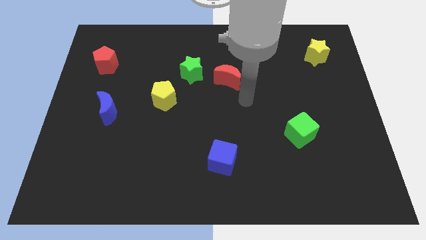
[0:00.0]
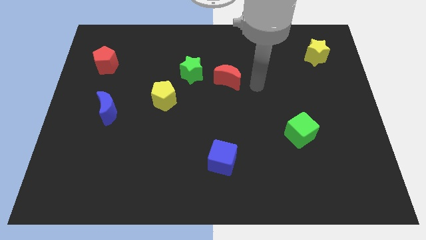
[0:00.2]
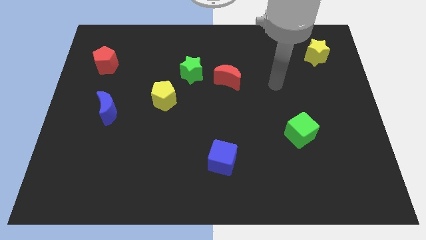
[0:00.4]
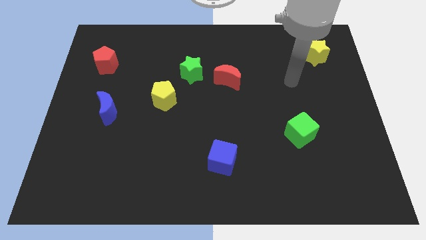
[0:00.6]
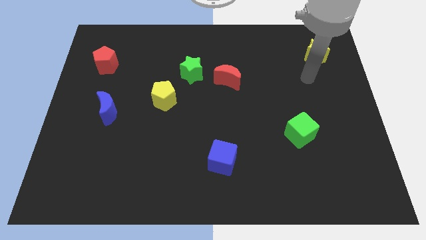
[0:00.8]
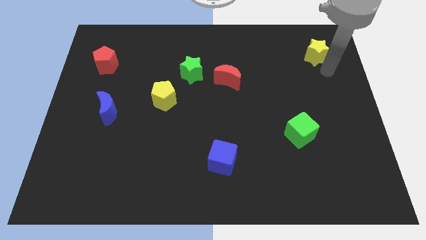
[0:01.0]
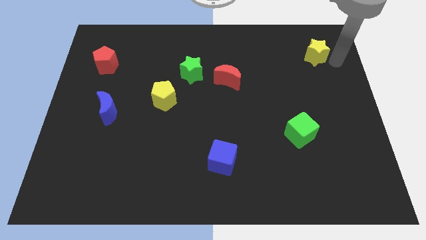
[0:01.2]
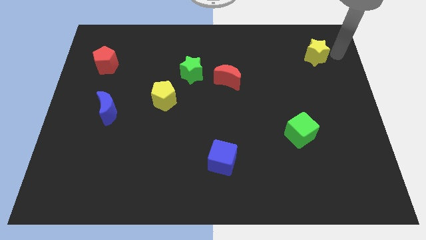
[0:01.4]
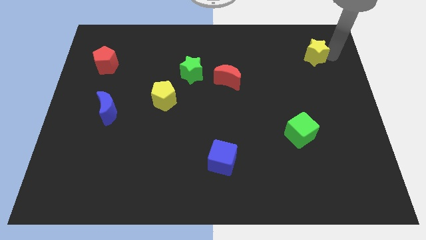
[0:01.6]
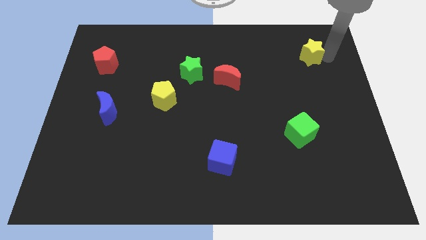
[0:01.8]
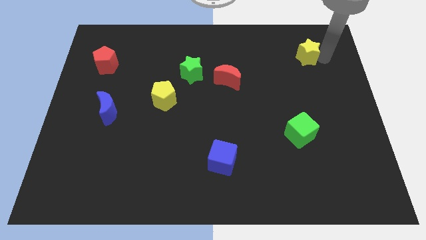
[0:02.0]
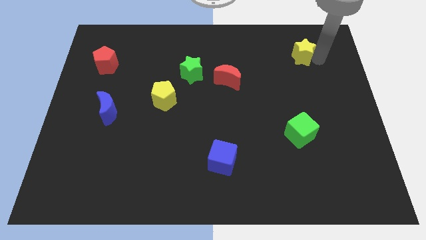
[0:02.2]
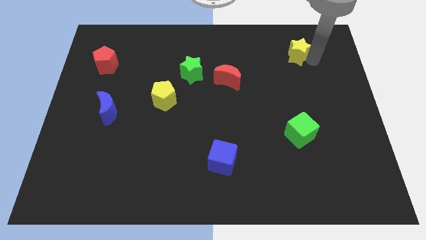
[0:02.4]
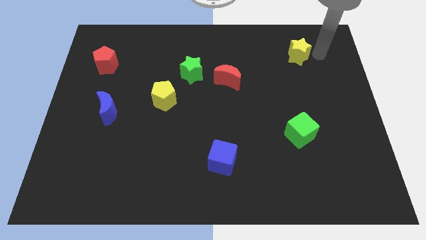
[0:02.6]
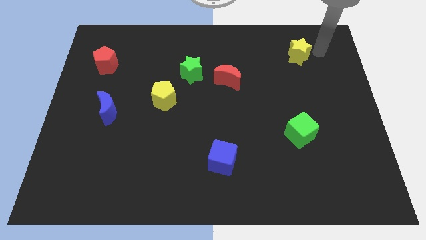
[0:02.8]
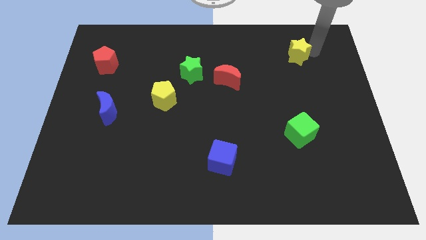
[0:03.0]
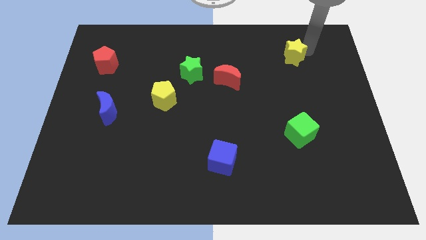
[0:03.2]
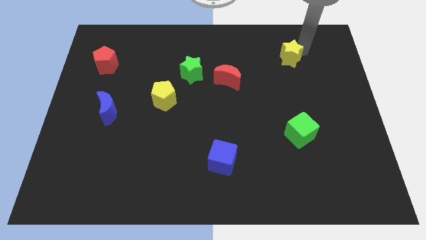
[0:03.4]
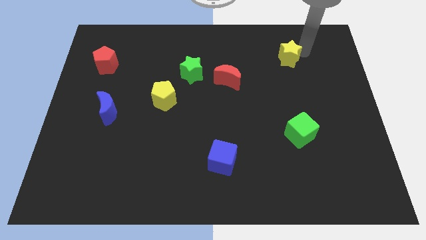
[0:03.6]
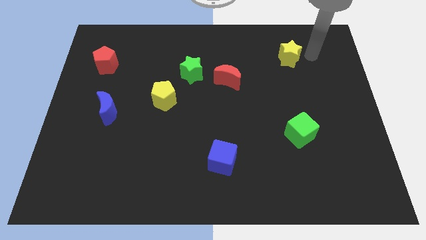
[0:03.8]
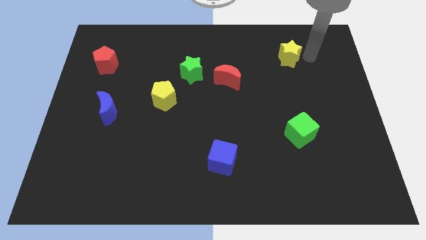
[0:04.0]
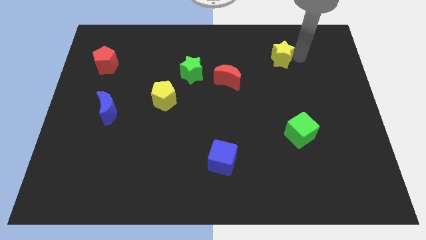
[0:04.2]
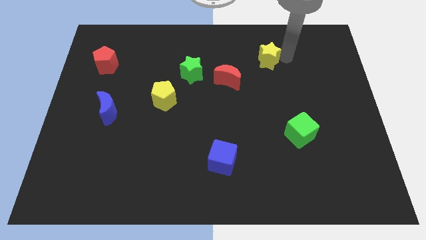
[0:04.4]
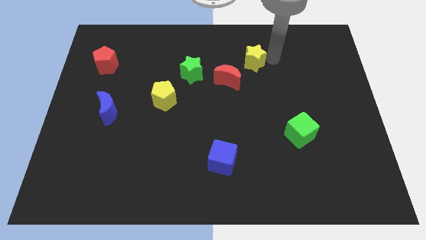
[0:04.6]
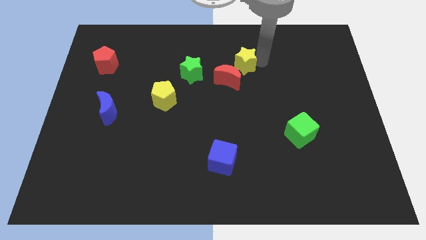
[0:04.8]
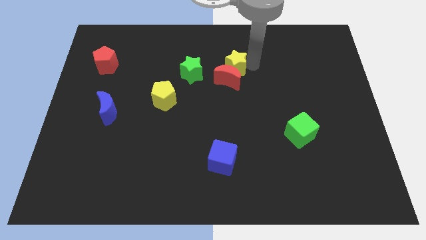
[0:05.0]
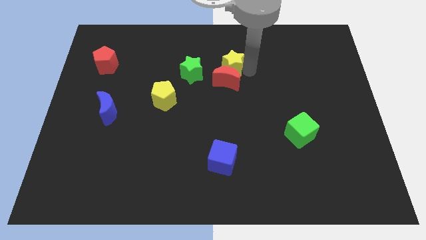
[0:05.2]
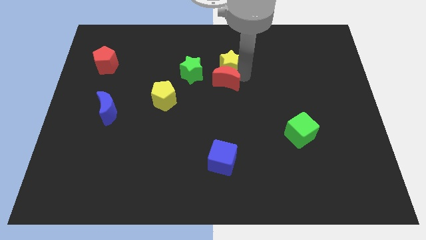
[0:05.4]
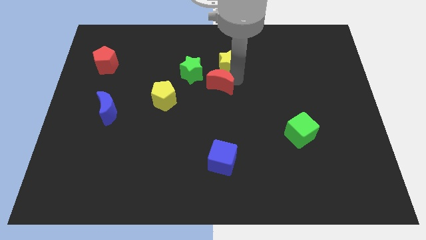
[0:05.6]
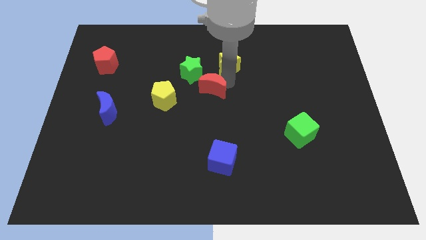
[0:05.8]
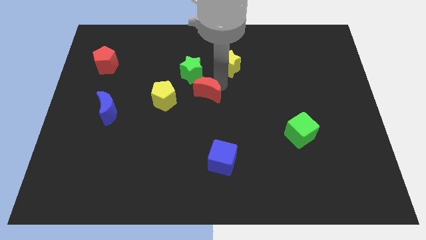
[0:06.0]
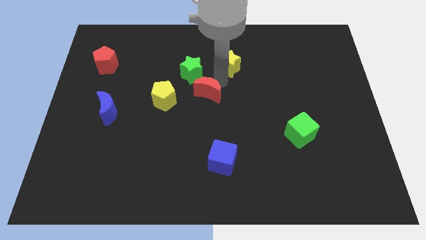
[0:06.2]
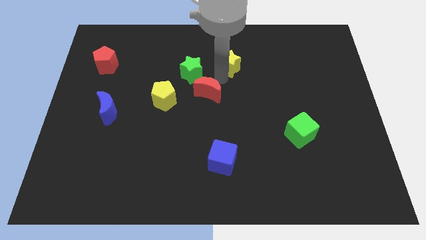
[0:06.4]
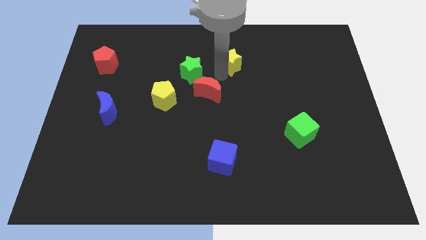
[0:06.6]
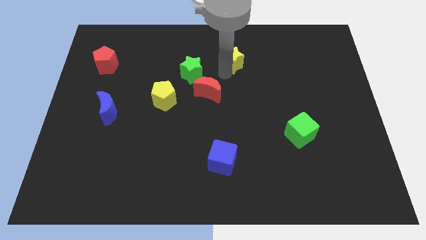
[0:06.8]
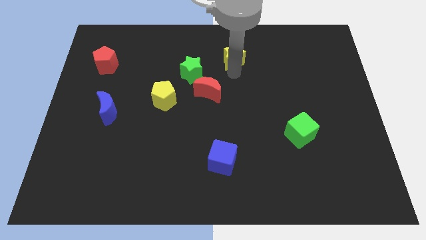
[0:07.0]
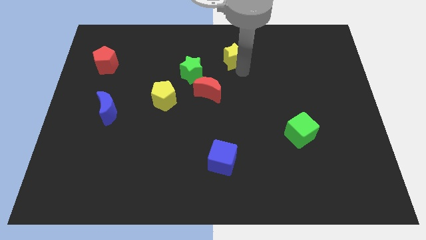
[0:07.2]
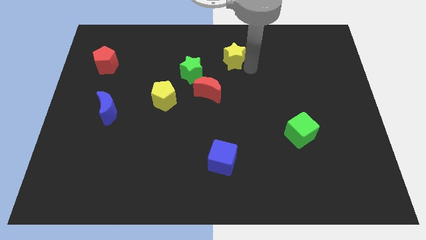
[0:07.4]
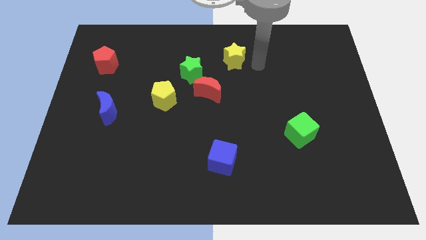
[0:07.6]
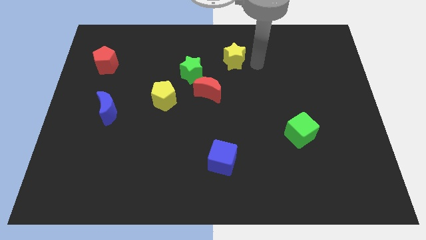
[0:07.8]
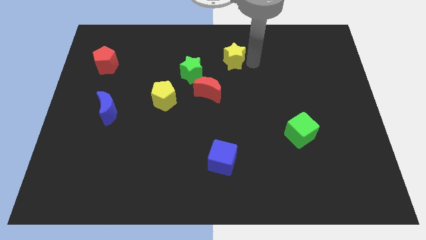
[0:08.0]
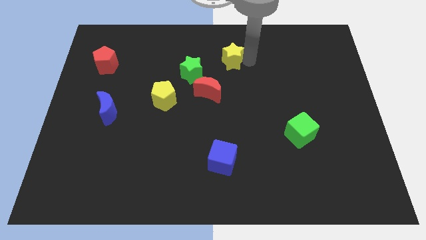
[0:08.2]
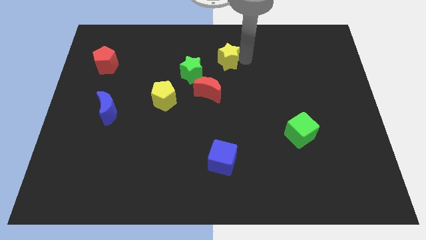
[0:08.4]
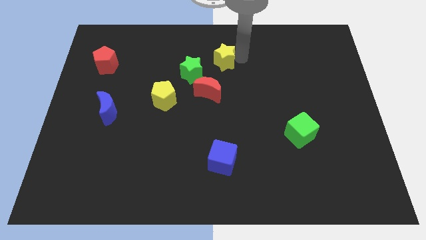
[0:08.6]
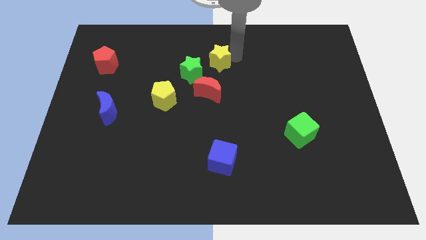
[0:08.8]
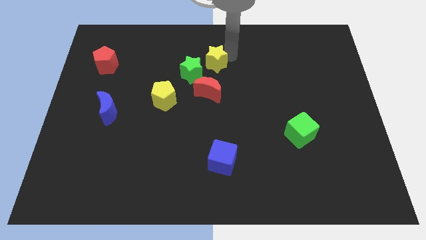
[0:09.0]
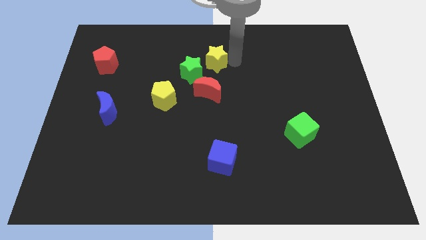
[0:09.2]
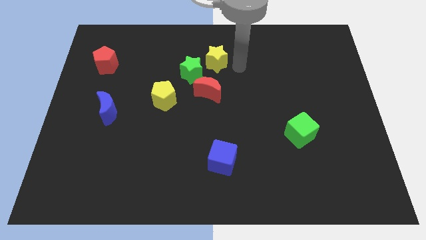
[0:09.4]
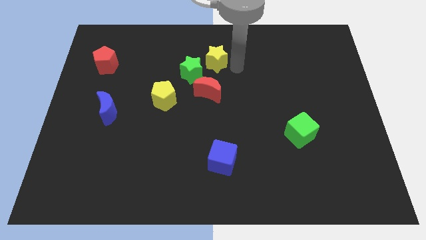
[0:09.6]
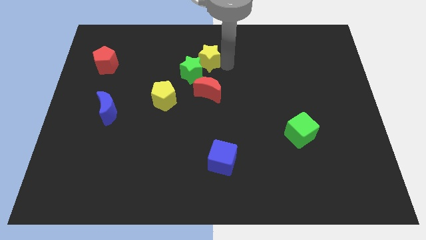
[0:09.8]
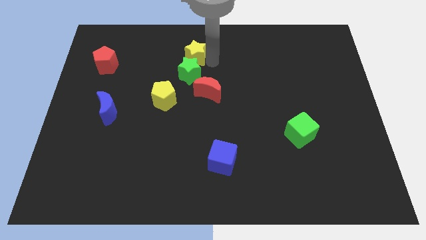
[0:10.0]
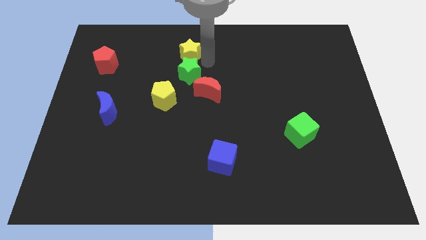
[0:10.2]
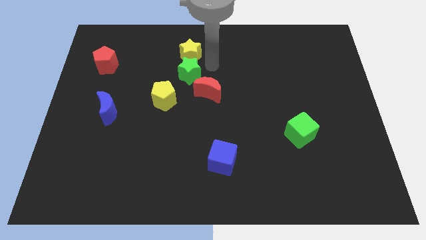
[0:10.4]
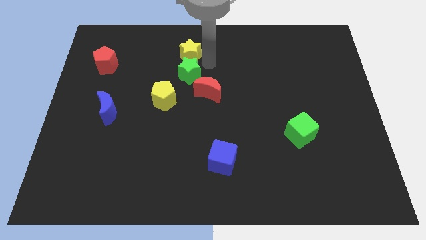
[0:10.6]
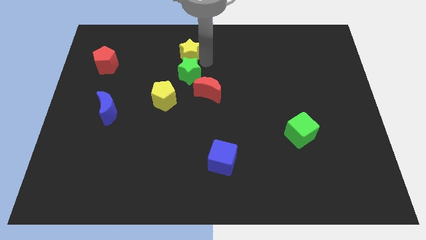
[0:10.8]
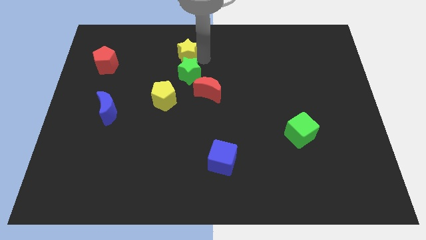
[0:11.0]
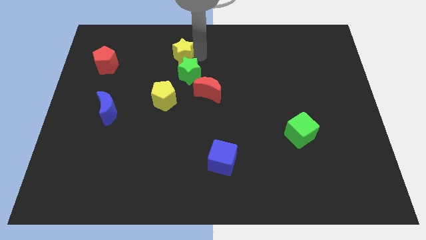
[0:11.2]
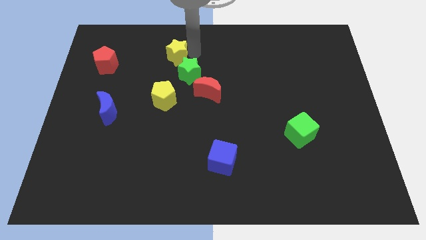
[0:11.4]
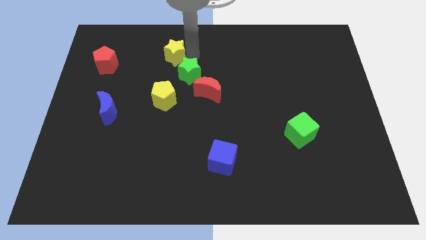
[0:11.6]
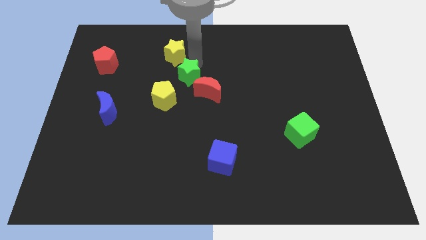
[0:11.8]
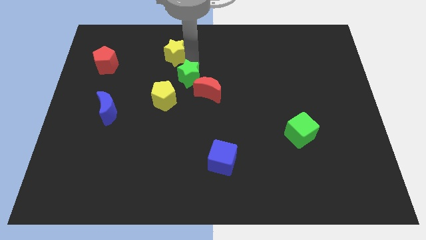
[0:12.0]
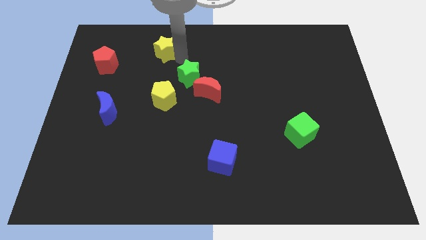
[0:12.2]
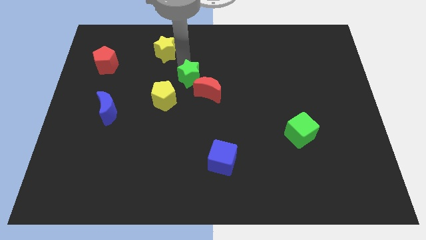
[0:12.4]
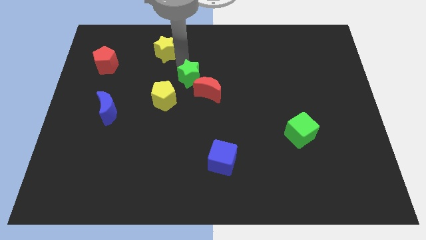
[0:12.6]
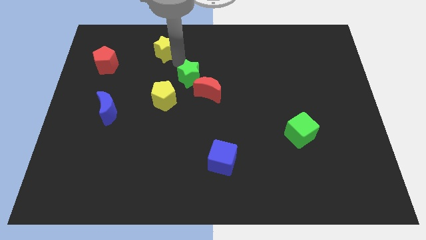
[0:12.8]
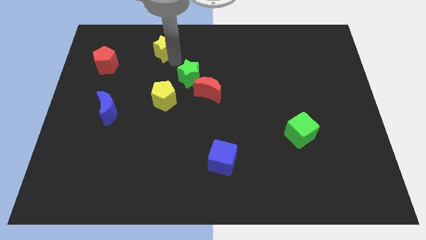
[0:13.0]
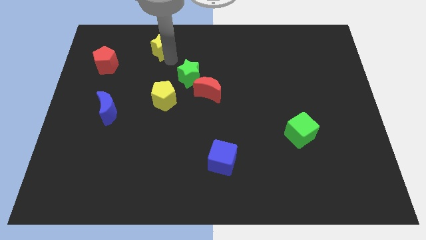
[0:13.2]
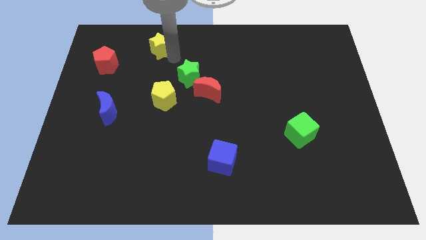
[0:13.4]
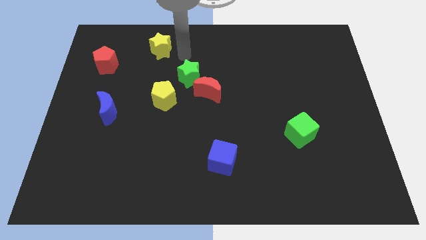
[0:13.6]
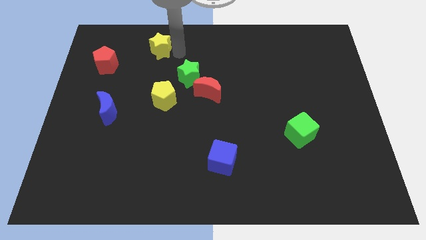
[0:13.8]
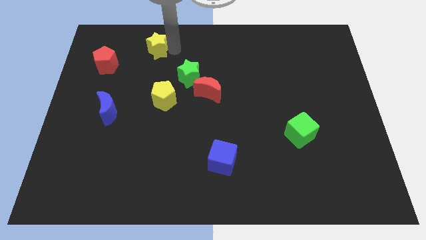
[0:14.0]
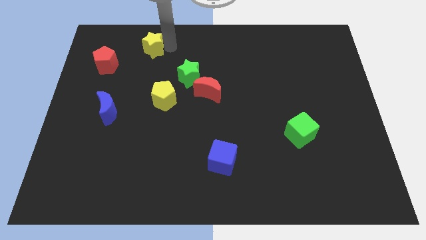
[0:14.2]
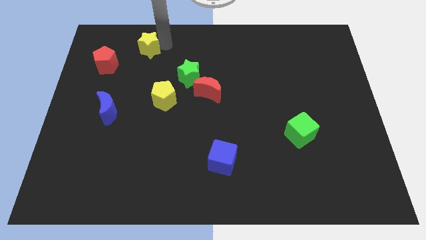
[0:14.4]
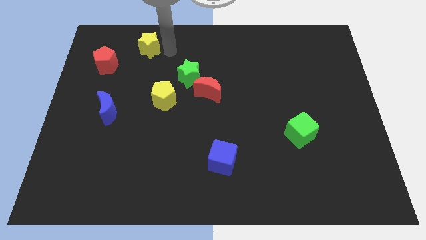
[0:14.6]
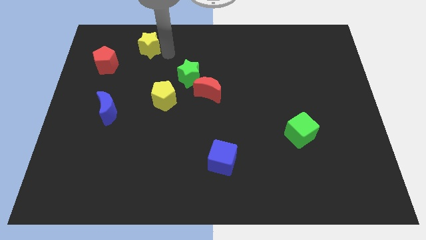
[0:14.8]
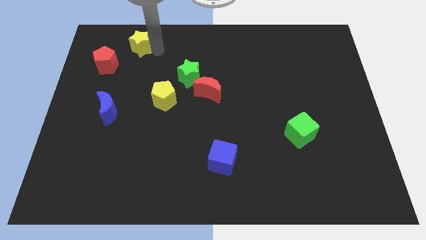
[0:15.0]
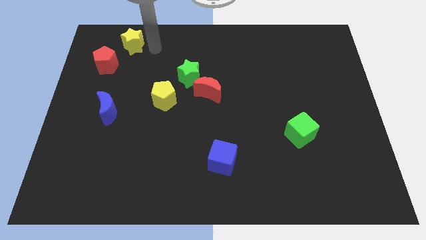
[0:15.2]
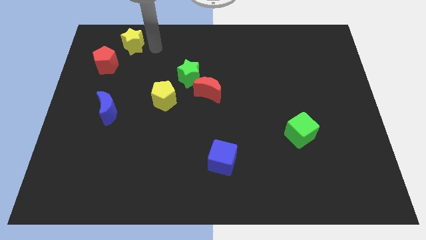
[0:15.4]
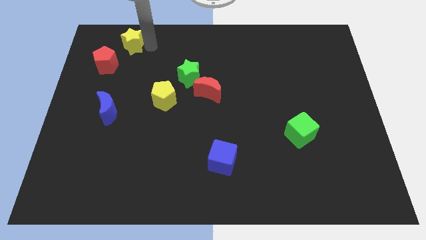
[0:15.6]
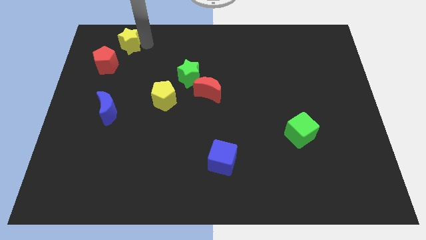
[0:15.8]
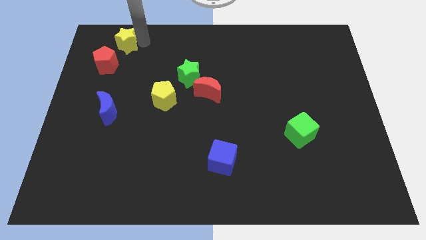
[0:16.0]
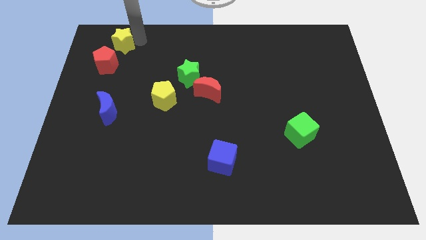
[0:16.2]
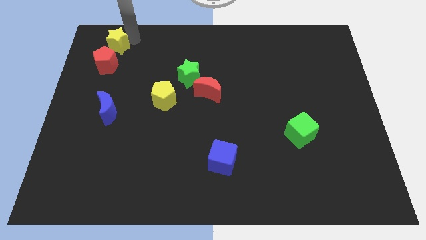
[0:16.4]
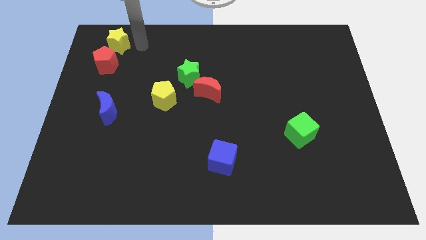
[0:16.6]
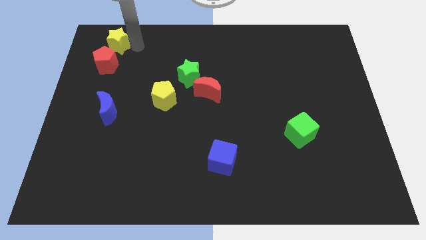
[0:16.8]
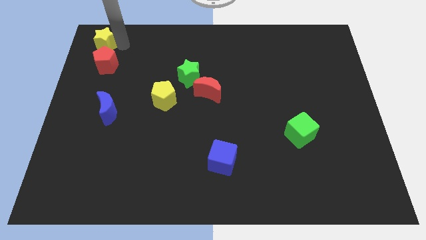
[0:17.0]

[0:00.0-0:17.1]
put the yellow star to the upper left corner
